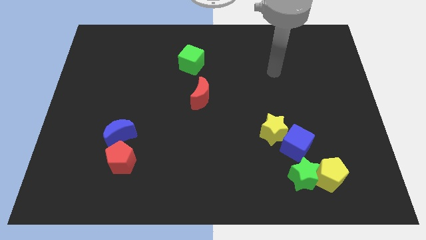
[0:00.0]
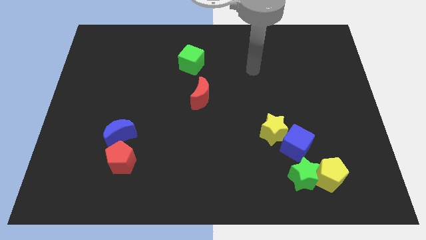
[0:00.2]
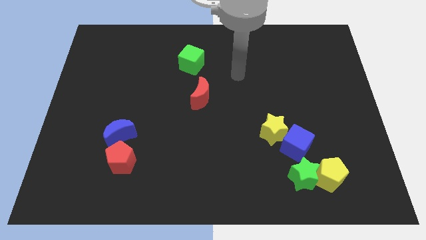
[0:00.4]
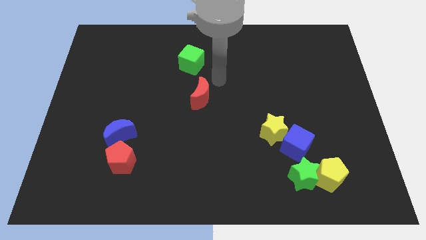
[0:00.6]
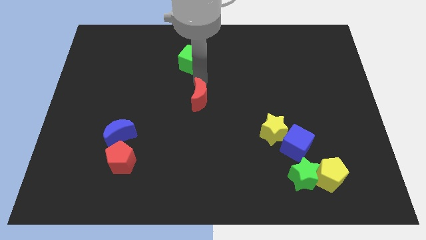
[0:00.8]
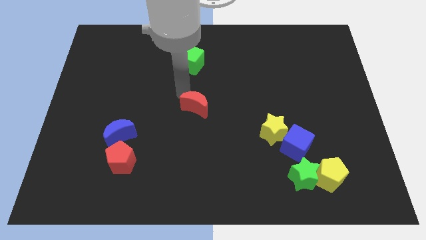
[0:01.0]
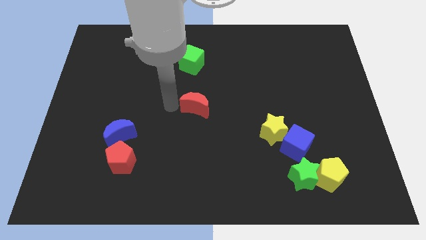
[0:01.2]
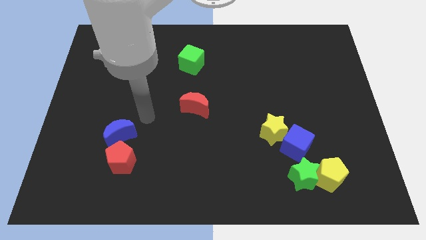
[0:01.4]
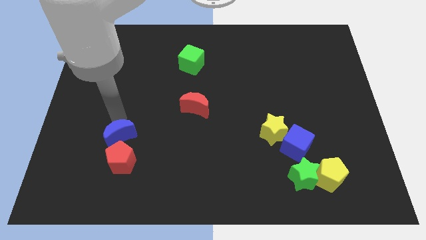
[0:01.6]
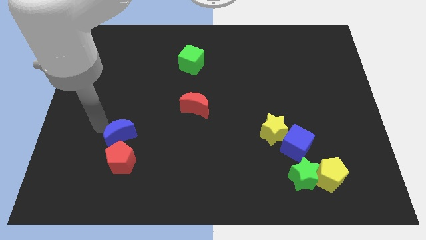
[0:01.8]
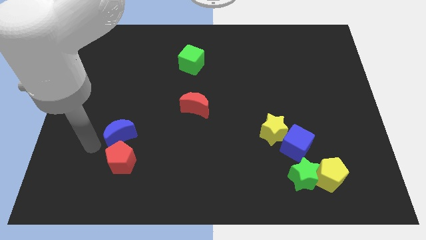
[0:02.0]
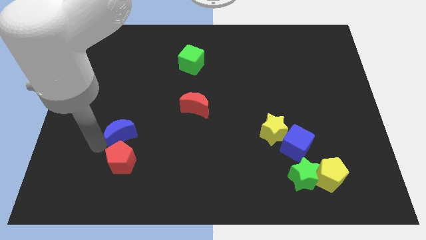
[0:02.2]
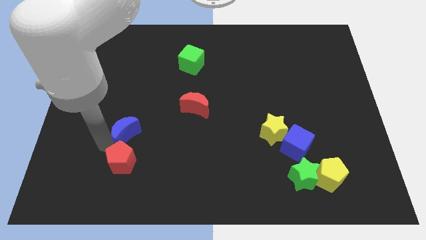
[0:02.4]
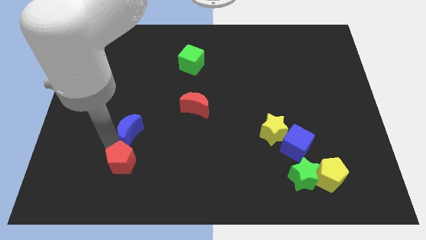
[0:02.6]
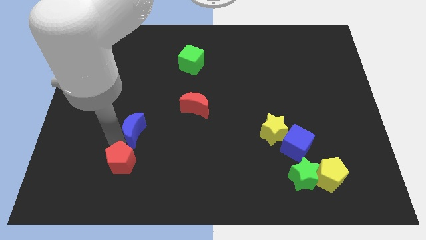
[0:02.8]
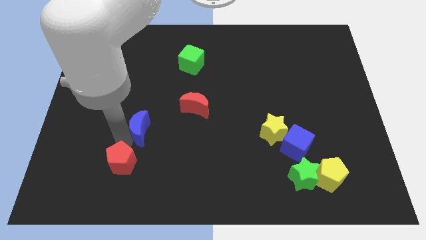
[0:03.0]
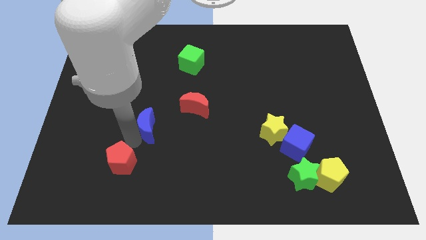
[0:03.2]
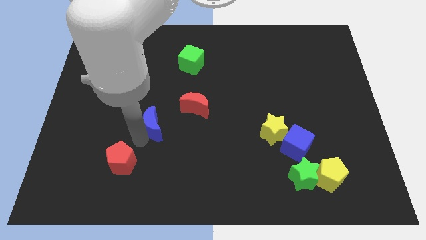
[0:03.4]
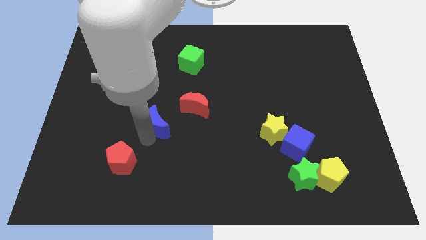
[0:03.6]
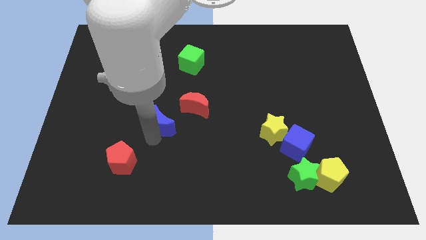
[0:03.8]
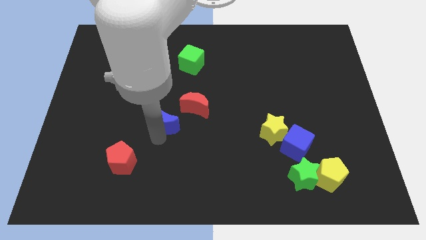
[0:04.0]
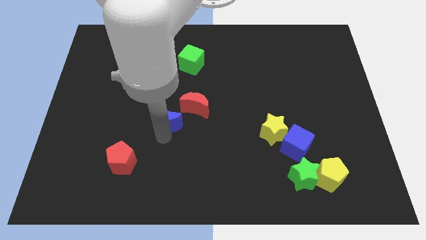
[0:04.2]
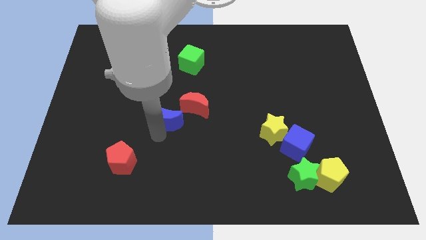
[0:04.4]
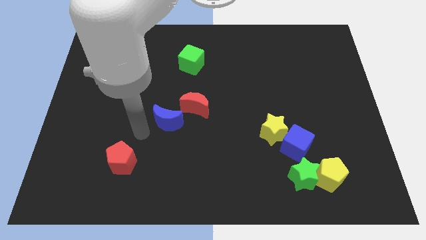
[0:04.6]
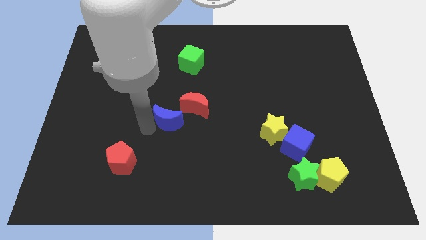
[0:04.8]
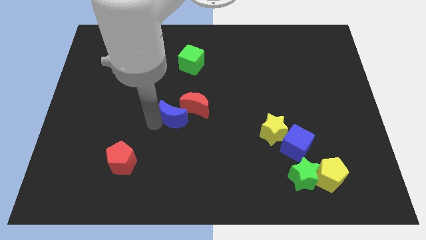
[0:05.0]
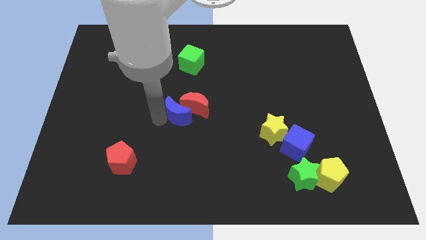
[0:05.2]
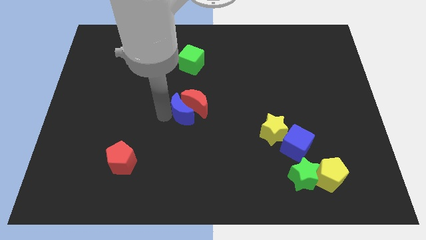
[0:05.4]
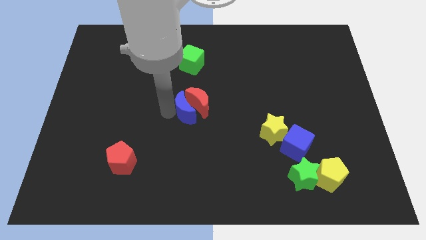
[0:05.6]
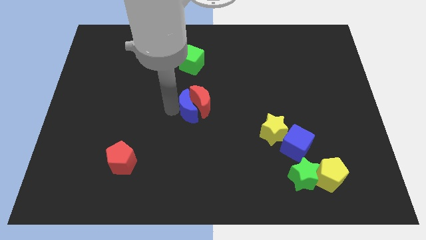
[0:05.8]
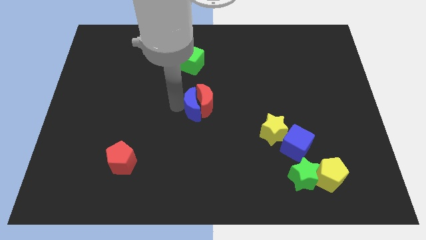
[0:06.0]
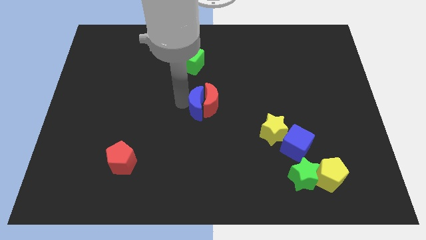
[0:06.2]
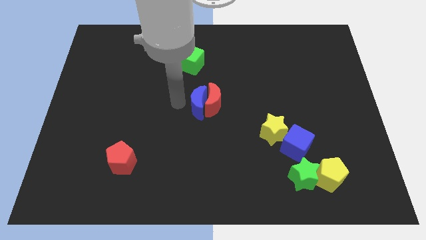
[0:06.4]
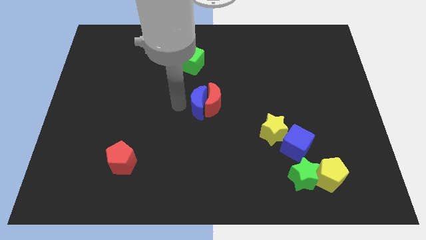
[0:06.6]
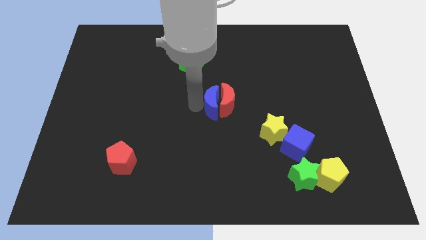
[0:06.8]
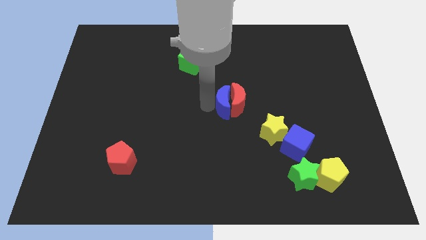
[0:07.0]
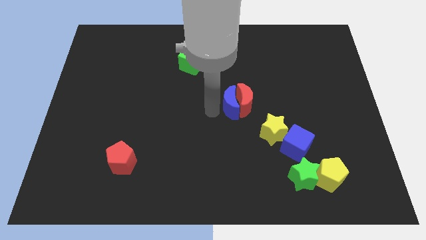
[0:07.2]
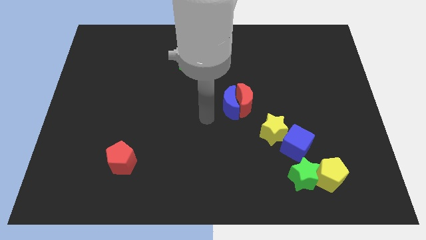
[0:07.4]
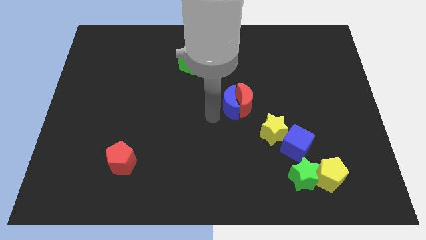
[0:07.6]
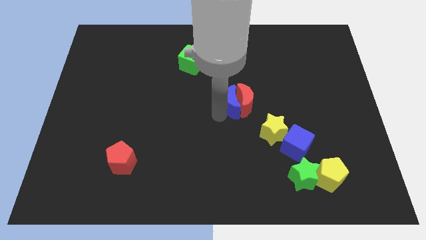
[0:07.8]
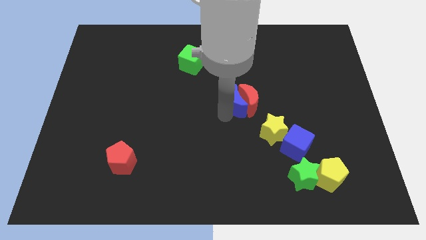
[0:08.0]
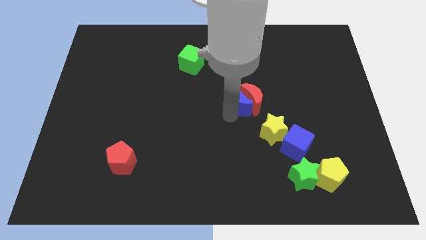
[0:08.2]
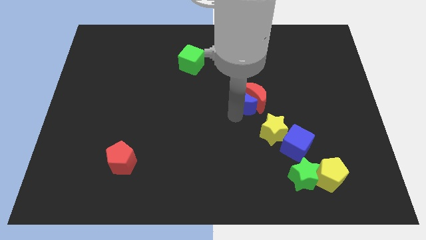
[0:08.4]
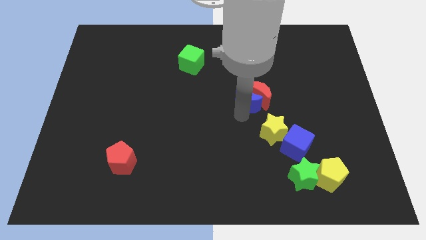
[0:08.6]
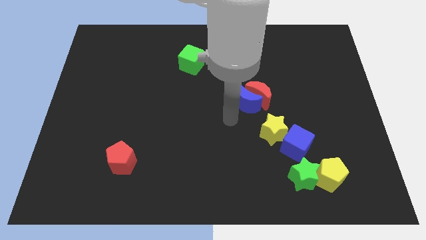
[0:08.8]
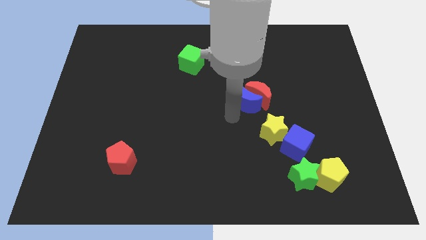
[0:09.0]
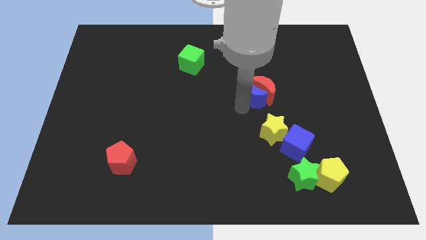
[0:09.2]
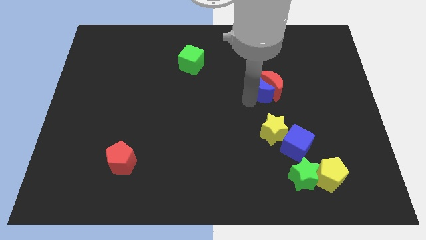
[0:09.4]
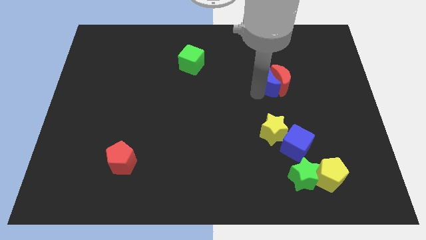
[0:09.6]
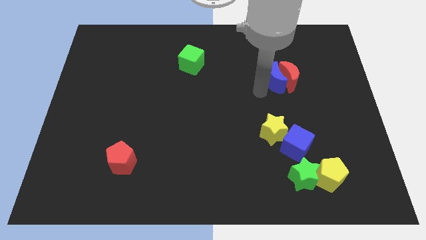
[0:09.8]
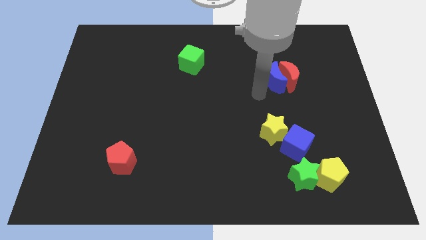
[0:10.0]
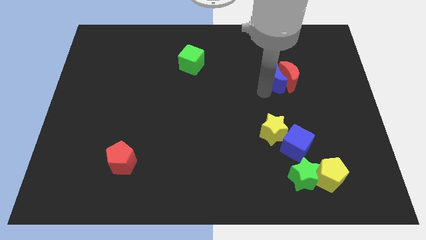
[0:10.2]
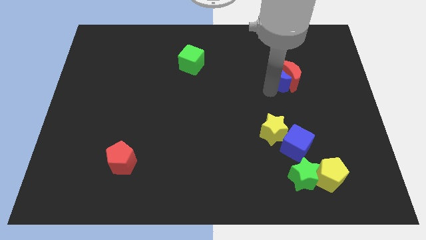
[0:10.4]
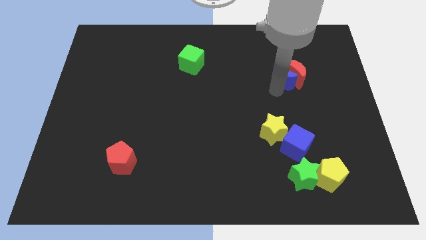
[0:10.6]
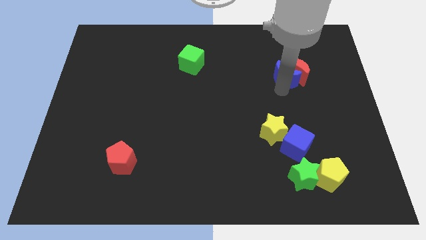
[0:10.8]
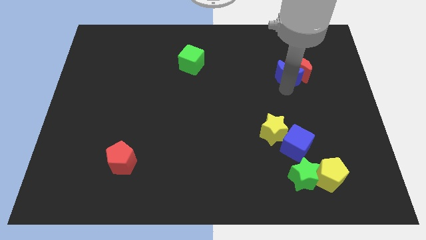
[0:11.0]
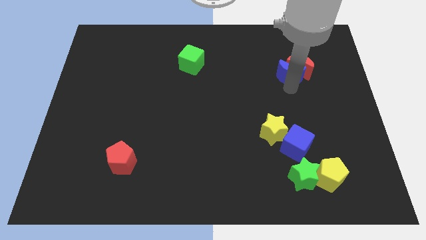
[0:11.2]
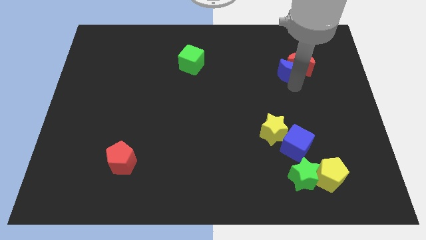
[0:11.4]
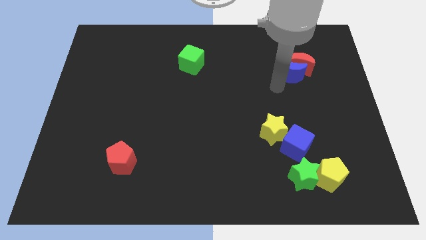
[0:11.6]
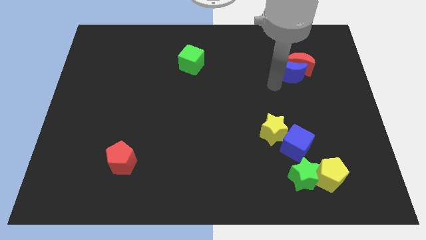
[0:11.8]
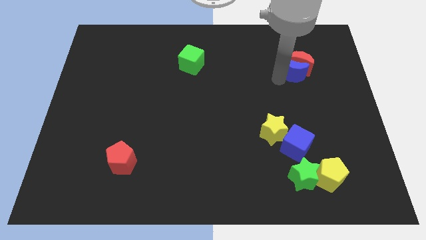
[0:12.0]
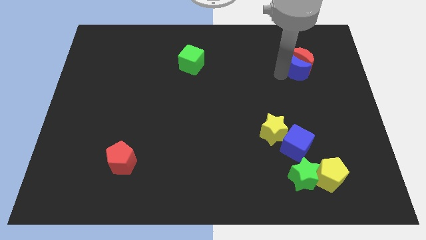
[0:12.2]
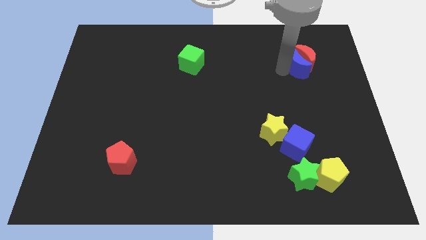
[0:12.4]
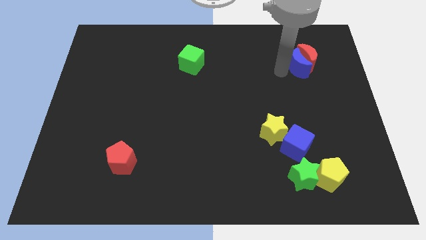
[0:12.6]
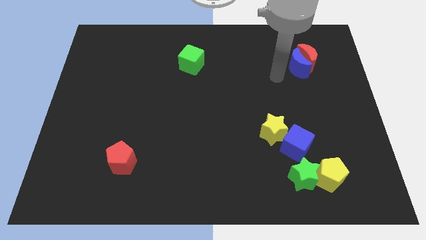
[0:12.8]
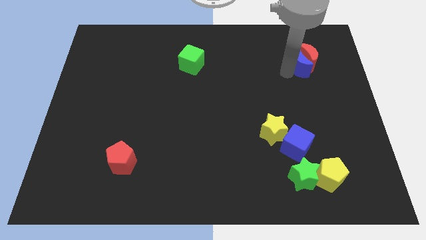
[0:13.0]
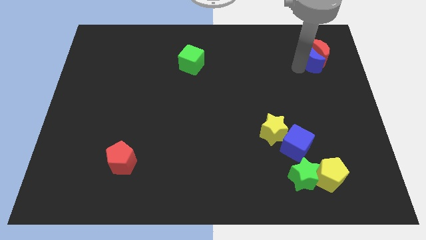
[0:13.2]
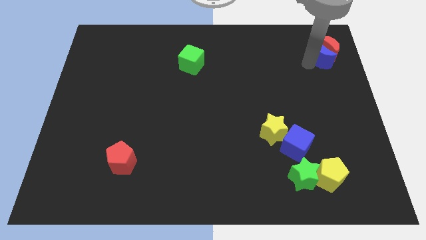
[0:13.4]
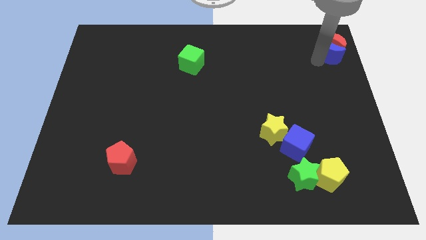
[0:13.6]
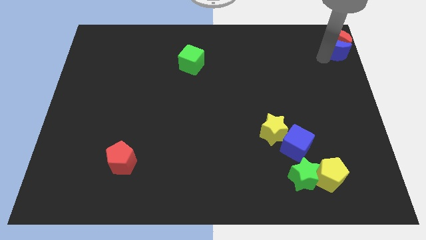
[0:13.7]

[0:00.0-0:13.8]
slide the blue moon to the top right
